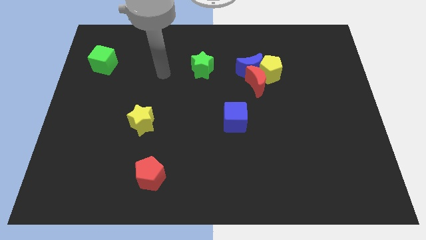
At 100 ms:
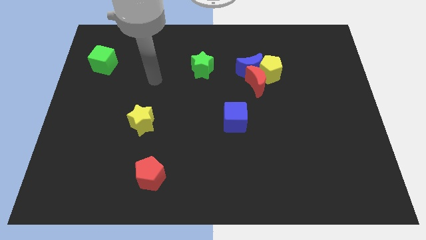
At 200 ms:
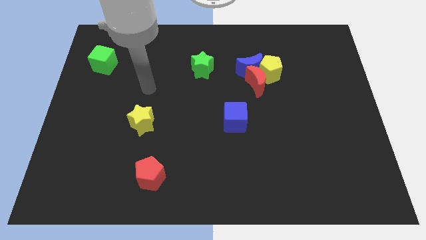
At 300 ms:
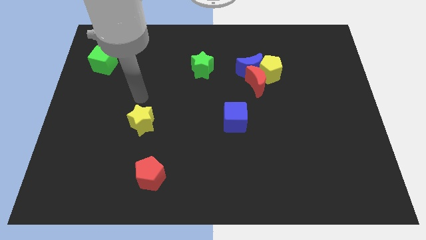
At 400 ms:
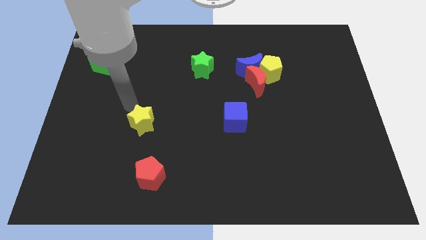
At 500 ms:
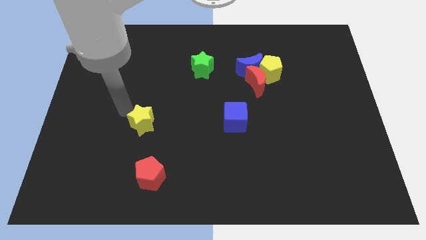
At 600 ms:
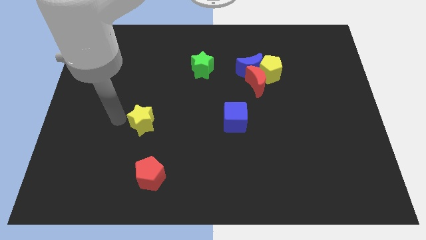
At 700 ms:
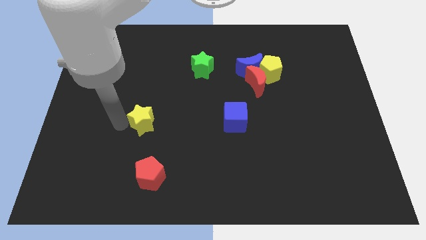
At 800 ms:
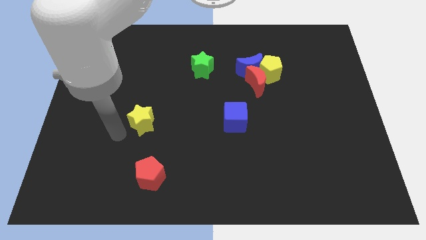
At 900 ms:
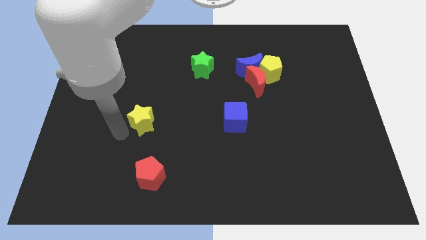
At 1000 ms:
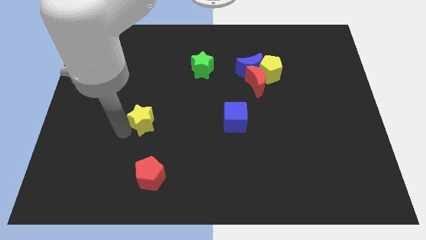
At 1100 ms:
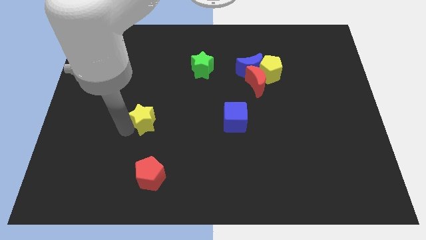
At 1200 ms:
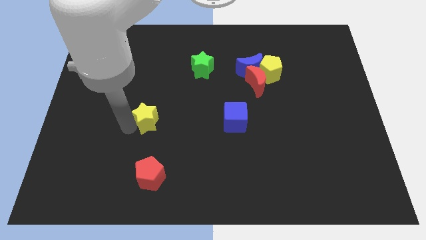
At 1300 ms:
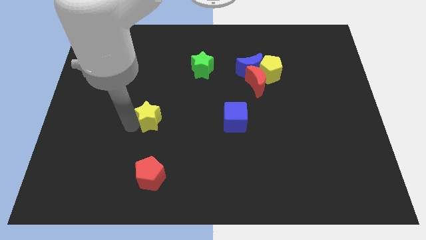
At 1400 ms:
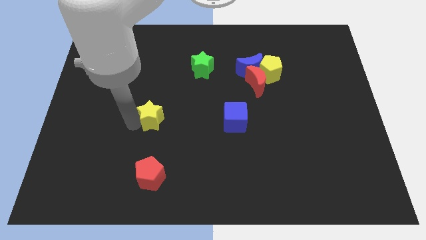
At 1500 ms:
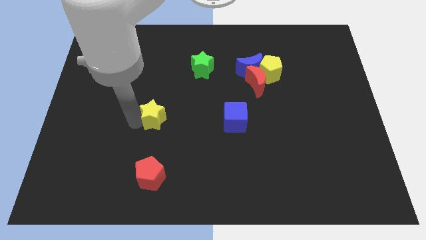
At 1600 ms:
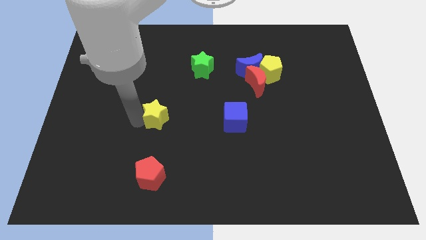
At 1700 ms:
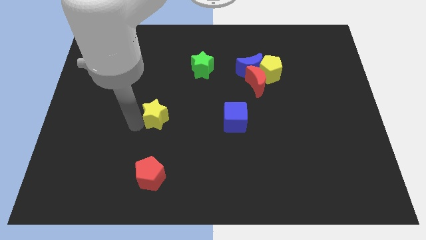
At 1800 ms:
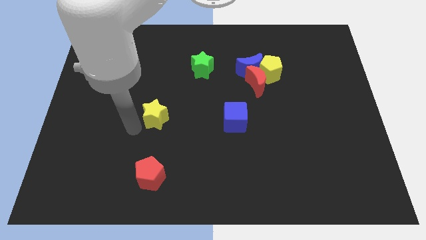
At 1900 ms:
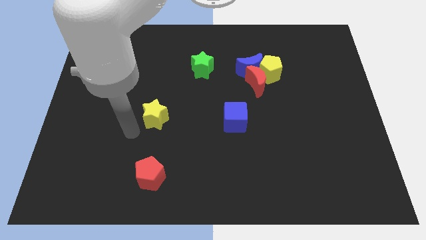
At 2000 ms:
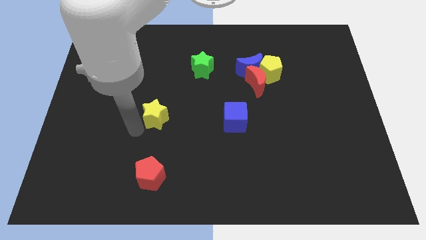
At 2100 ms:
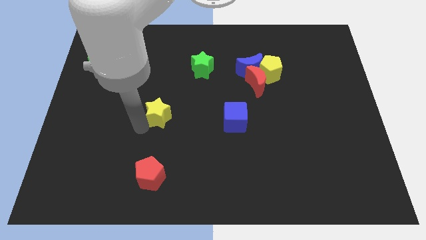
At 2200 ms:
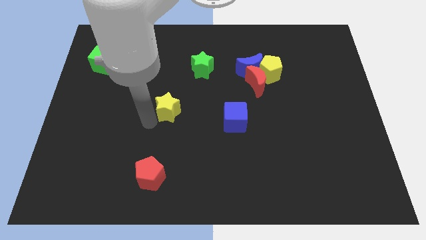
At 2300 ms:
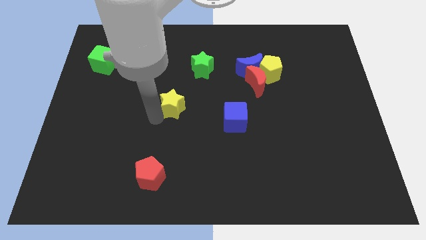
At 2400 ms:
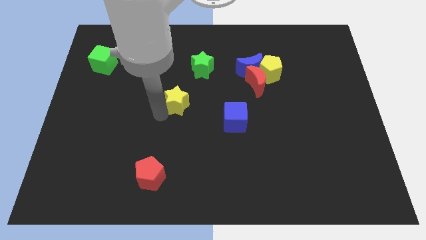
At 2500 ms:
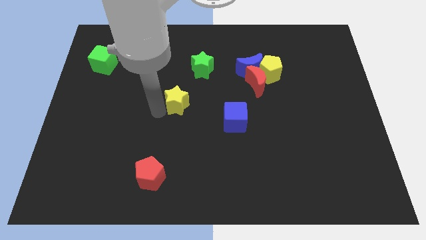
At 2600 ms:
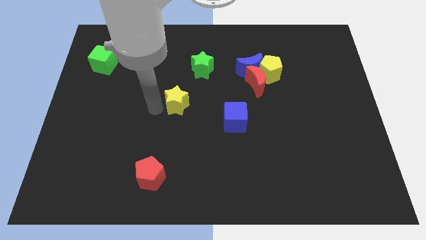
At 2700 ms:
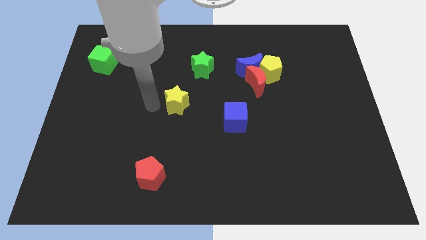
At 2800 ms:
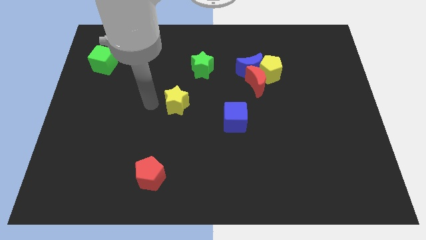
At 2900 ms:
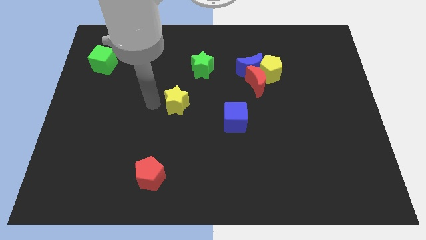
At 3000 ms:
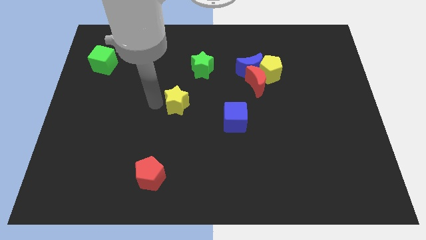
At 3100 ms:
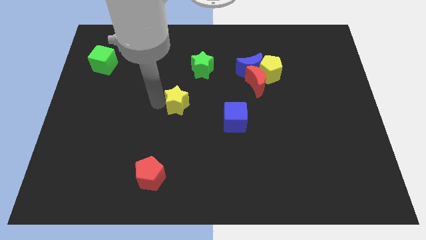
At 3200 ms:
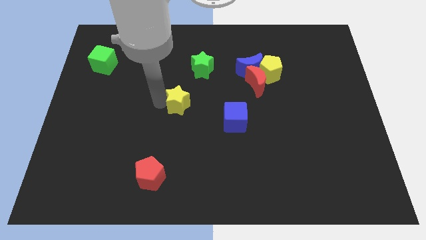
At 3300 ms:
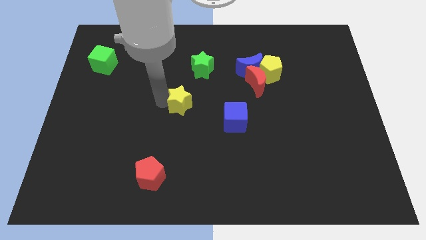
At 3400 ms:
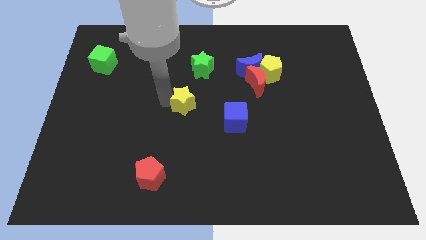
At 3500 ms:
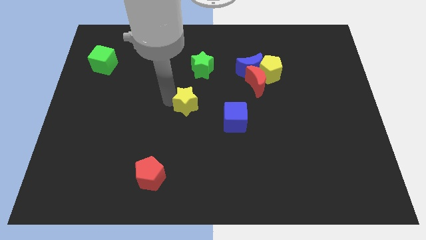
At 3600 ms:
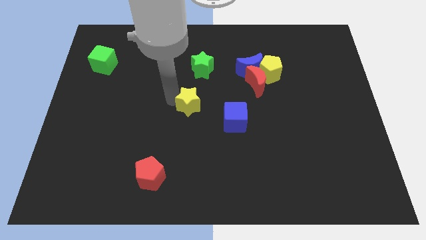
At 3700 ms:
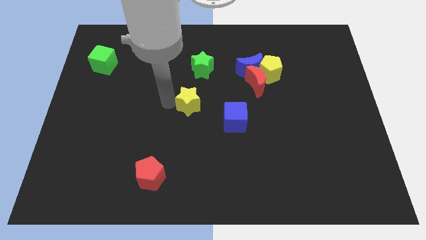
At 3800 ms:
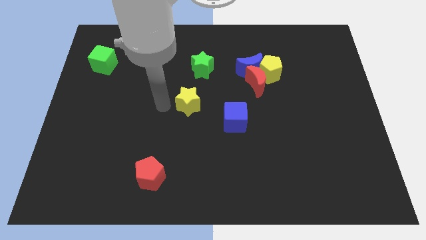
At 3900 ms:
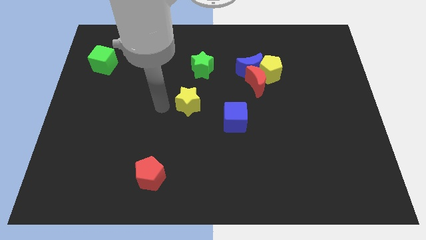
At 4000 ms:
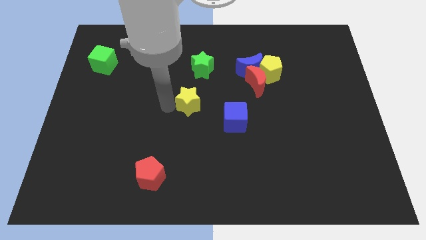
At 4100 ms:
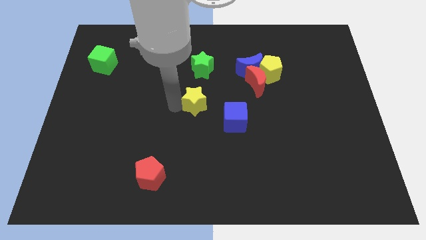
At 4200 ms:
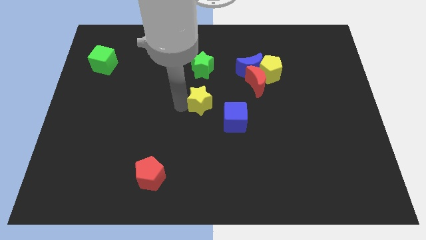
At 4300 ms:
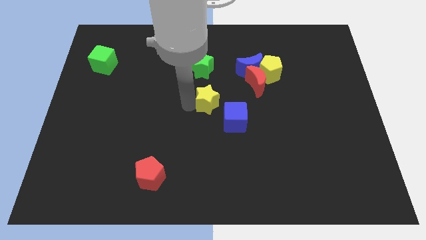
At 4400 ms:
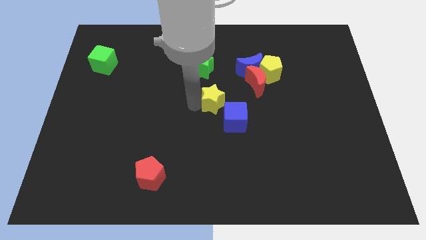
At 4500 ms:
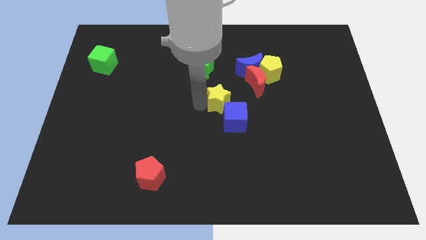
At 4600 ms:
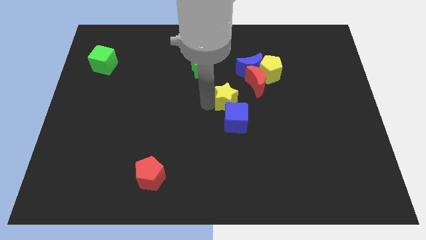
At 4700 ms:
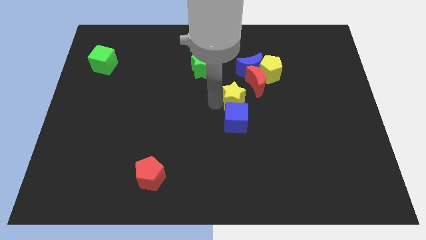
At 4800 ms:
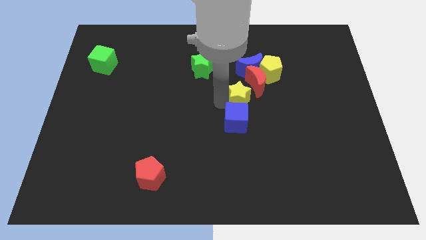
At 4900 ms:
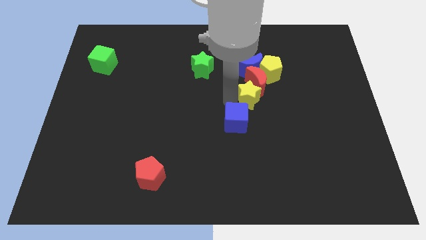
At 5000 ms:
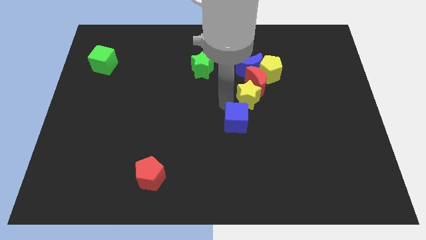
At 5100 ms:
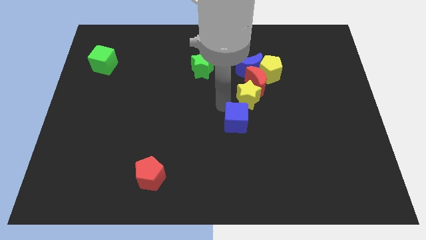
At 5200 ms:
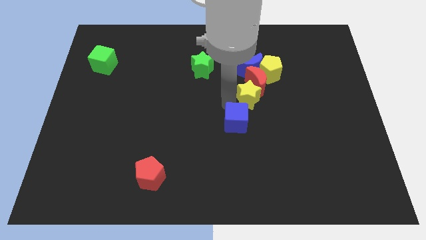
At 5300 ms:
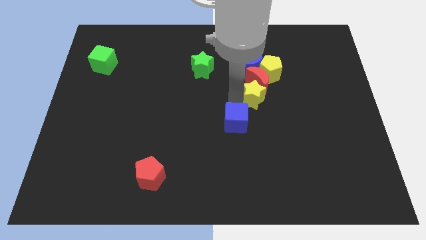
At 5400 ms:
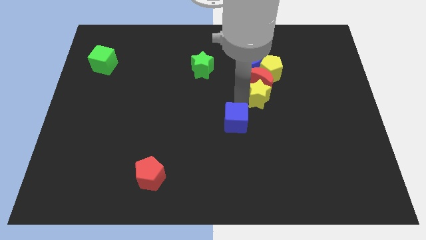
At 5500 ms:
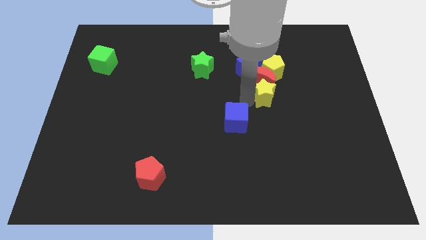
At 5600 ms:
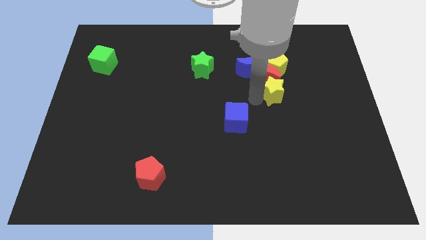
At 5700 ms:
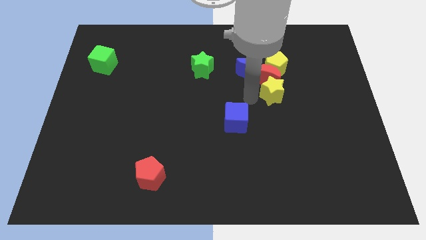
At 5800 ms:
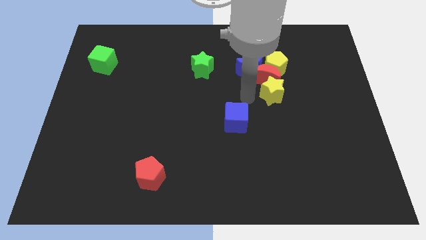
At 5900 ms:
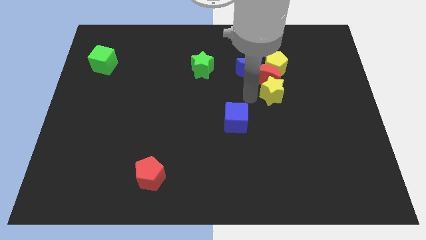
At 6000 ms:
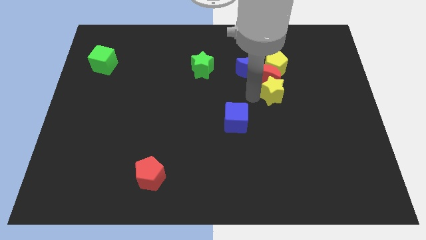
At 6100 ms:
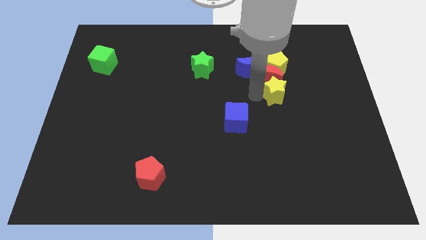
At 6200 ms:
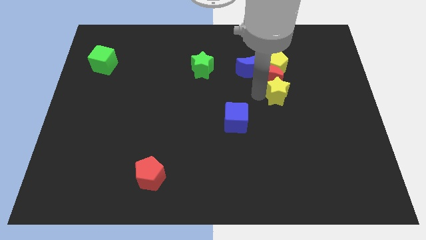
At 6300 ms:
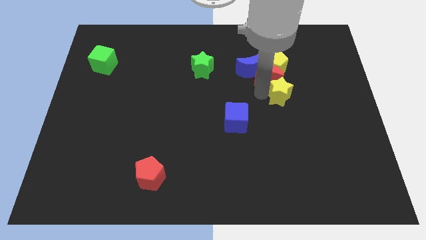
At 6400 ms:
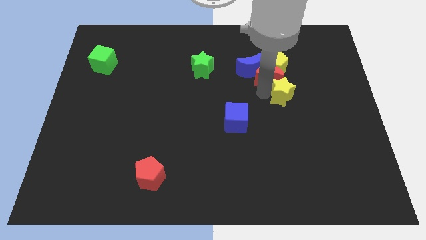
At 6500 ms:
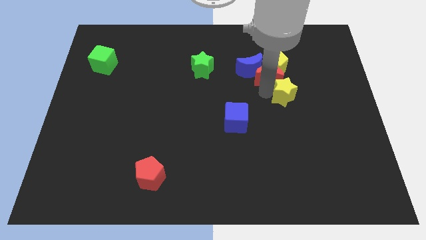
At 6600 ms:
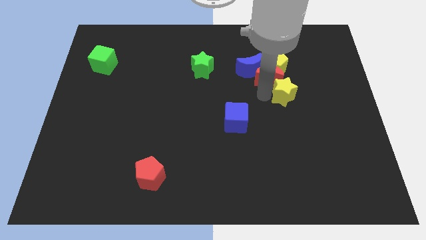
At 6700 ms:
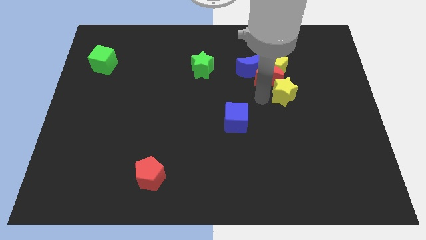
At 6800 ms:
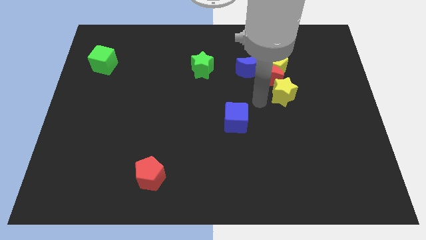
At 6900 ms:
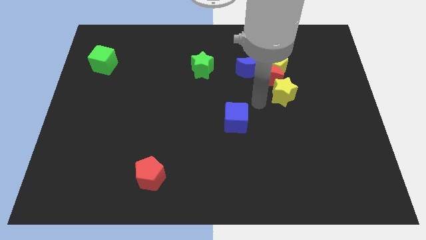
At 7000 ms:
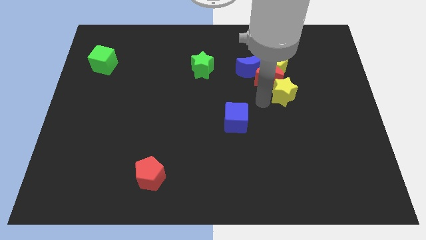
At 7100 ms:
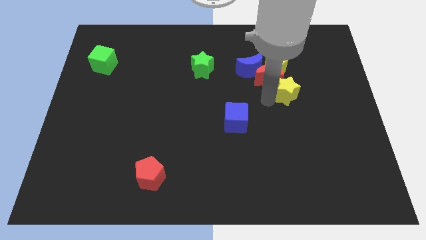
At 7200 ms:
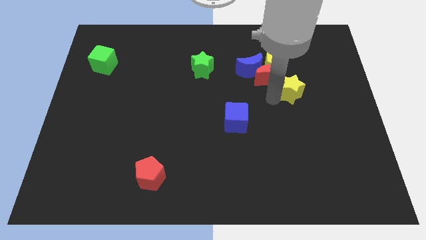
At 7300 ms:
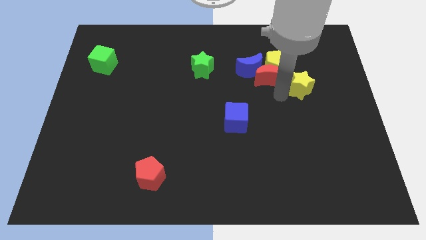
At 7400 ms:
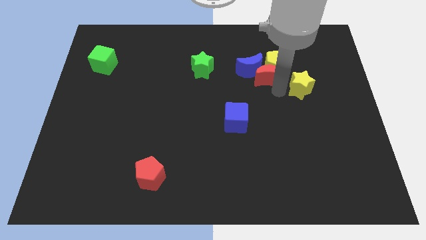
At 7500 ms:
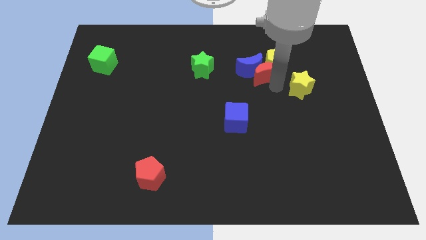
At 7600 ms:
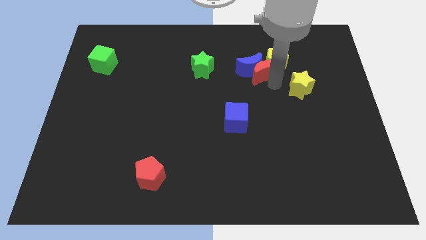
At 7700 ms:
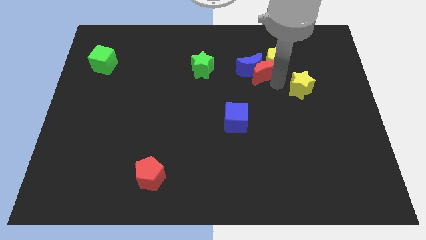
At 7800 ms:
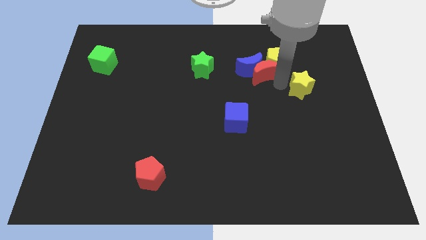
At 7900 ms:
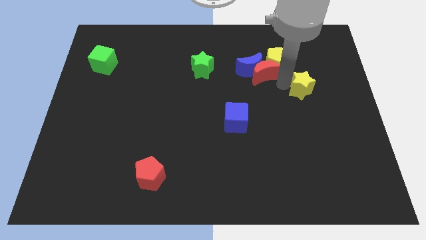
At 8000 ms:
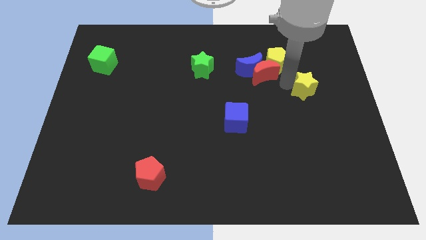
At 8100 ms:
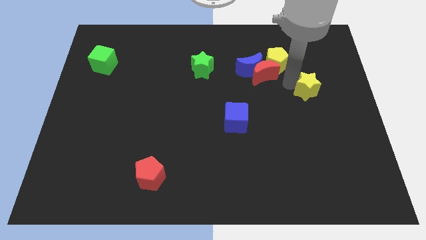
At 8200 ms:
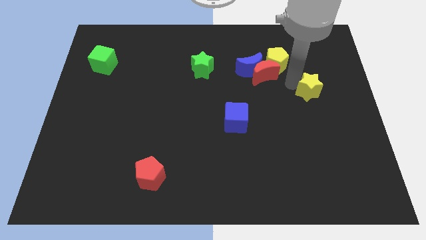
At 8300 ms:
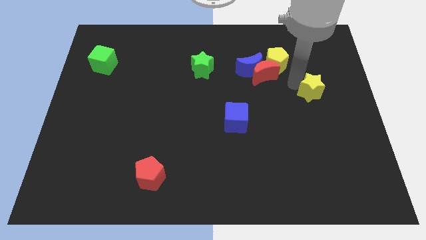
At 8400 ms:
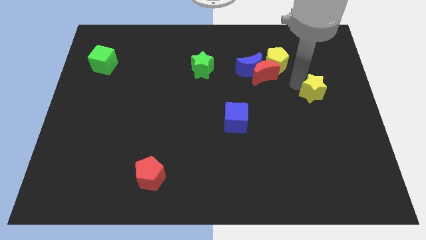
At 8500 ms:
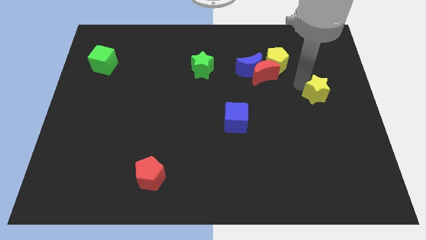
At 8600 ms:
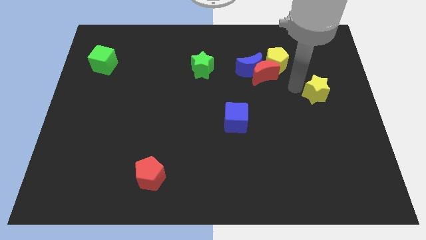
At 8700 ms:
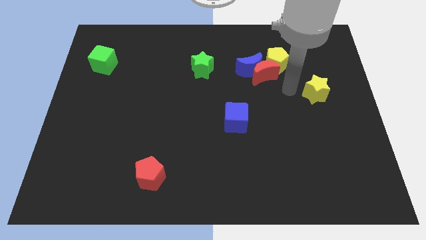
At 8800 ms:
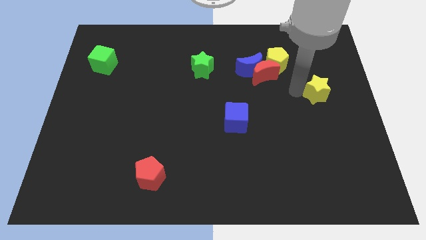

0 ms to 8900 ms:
put the yellow star to the right side
